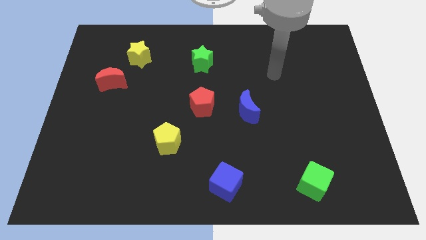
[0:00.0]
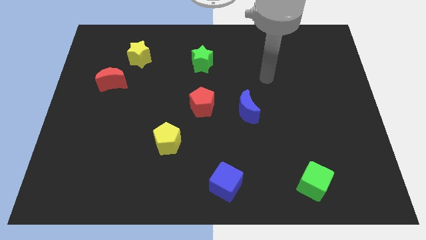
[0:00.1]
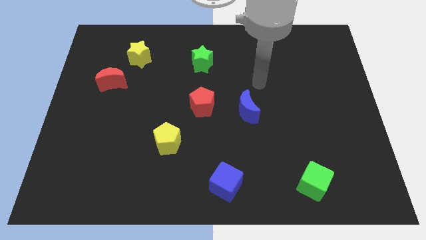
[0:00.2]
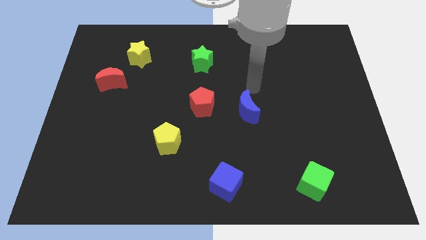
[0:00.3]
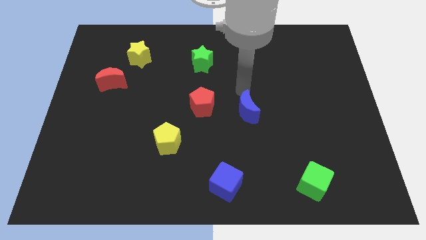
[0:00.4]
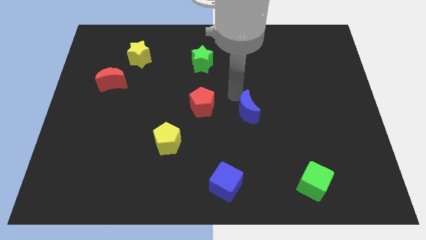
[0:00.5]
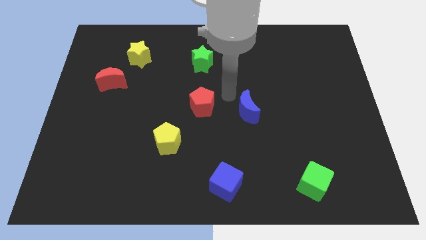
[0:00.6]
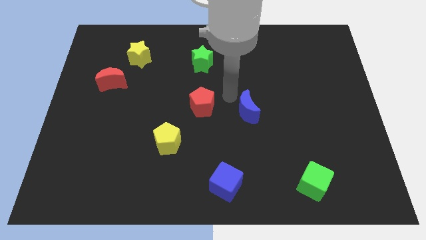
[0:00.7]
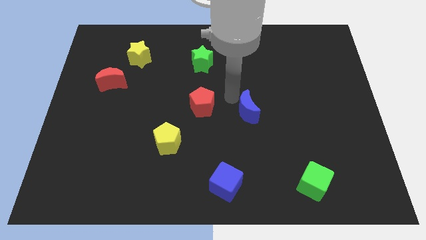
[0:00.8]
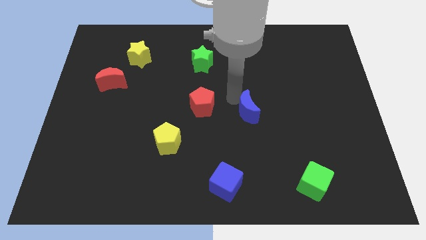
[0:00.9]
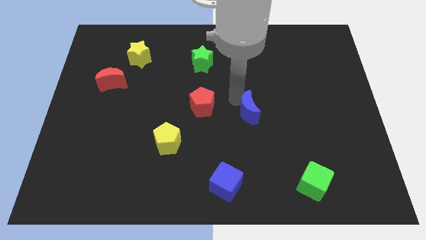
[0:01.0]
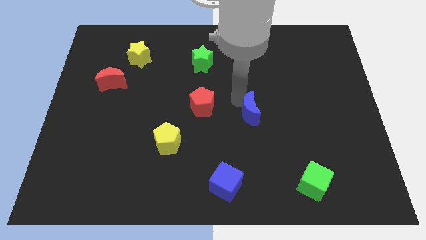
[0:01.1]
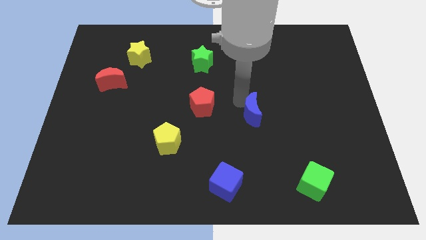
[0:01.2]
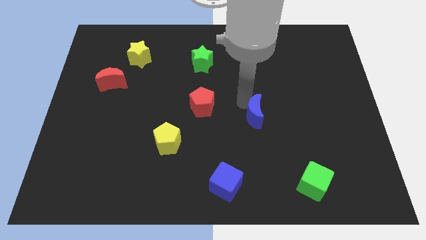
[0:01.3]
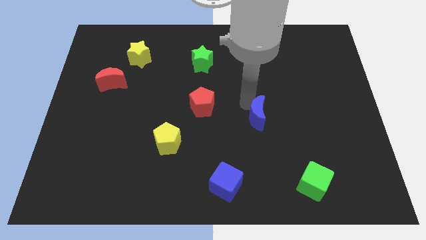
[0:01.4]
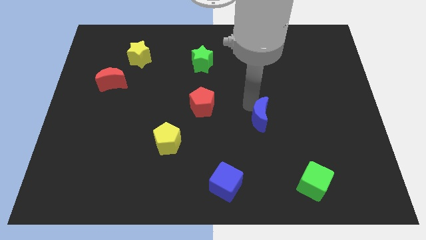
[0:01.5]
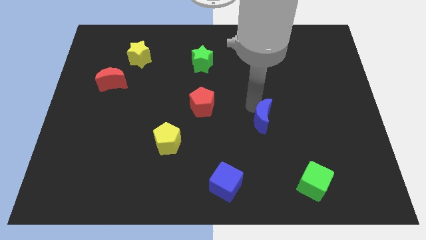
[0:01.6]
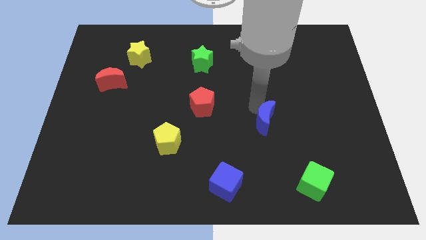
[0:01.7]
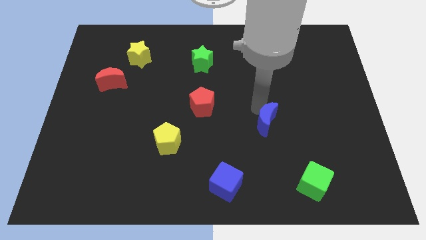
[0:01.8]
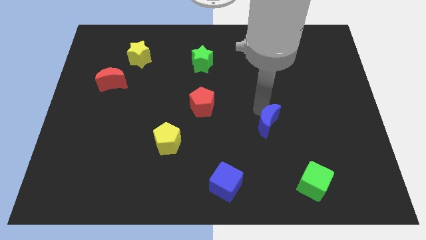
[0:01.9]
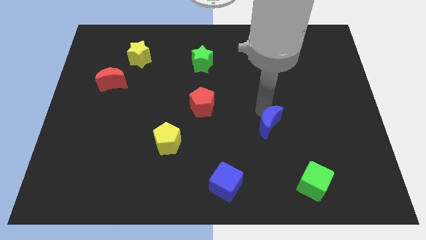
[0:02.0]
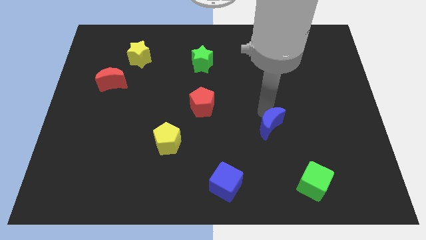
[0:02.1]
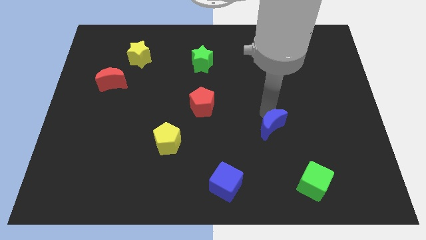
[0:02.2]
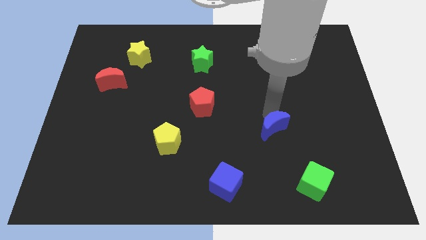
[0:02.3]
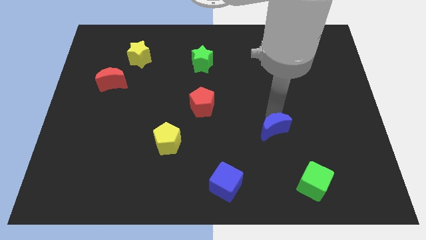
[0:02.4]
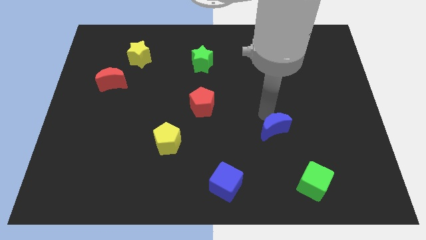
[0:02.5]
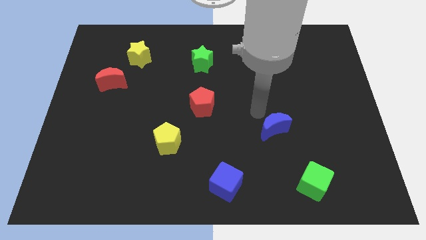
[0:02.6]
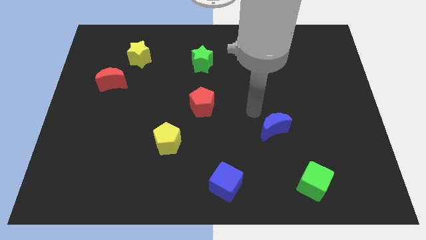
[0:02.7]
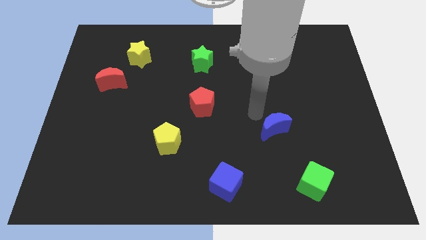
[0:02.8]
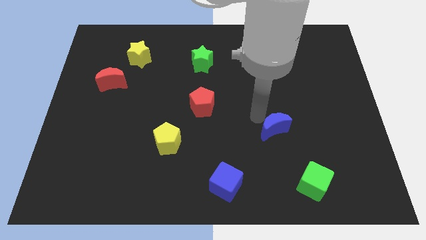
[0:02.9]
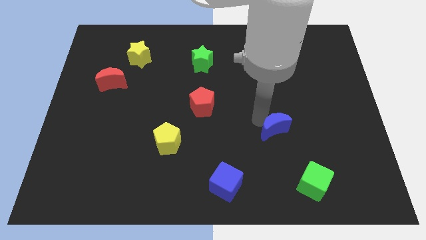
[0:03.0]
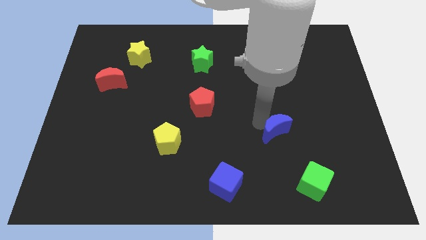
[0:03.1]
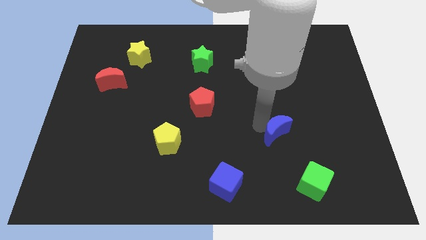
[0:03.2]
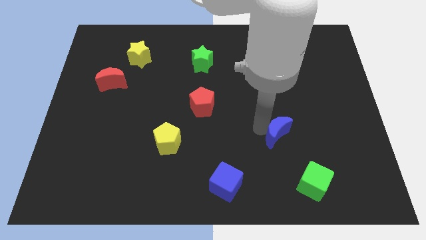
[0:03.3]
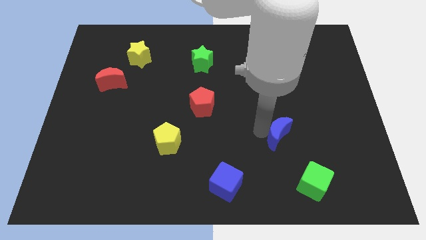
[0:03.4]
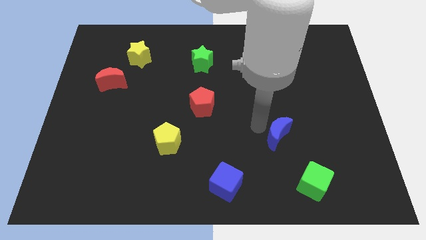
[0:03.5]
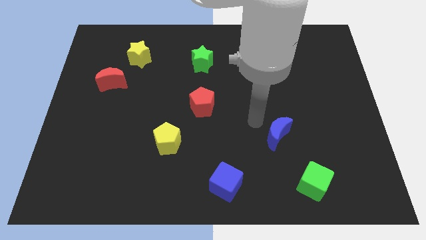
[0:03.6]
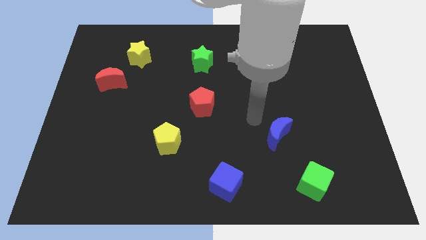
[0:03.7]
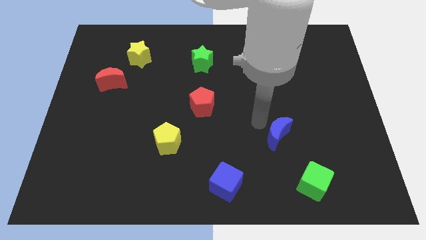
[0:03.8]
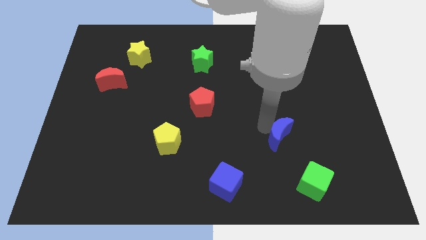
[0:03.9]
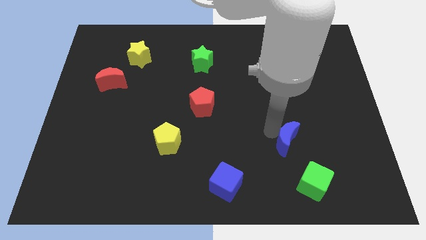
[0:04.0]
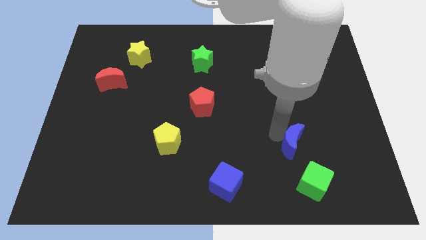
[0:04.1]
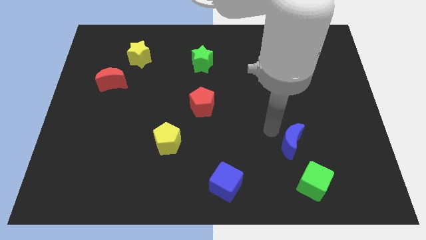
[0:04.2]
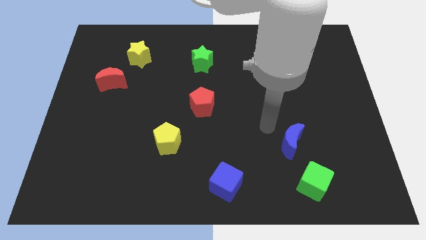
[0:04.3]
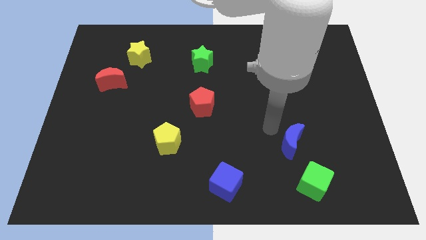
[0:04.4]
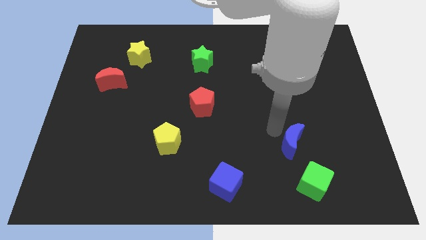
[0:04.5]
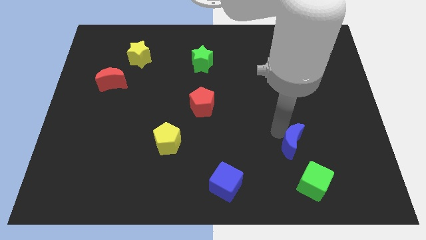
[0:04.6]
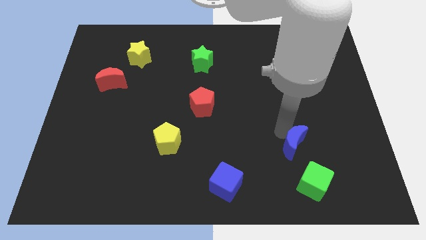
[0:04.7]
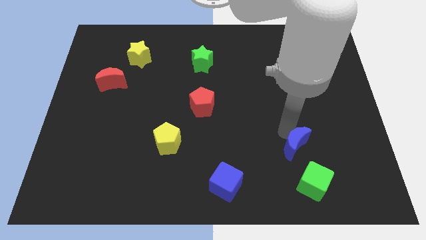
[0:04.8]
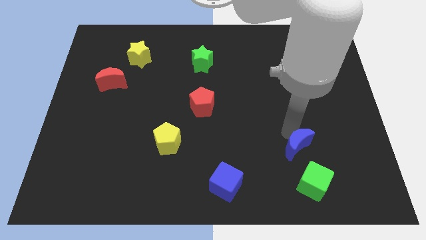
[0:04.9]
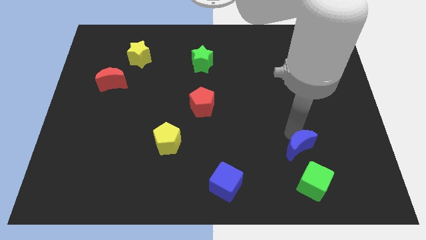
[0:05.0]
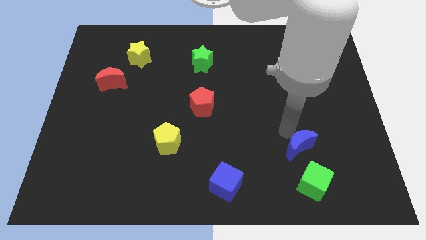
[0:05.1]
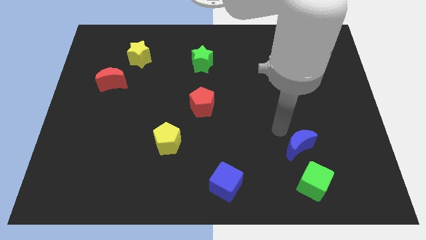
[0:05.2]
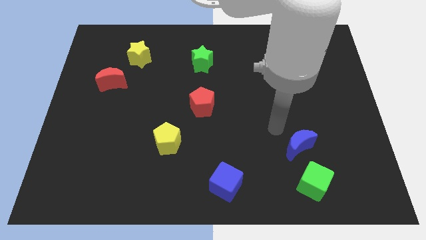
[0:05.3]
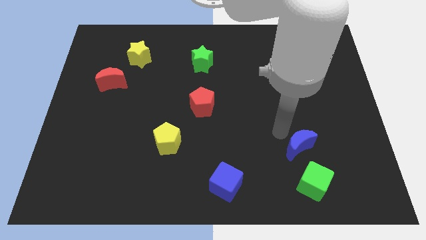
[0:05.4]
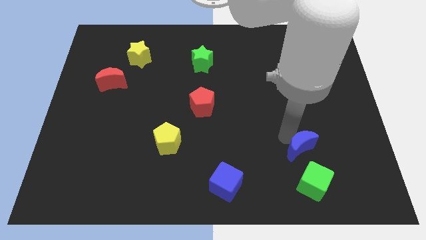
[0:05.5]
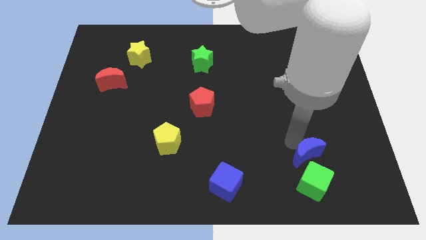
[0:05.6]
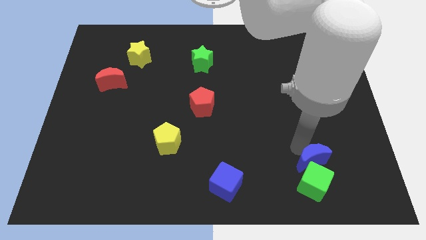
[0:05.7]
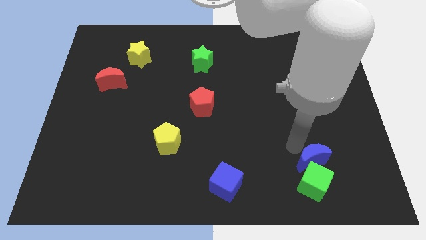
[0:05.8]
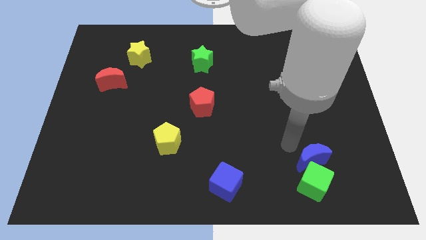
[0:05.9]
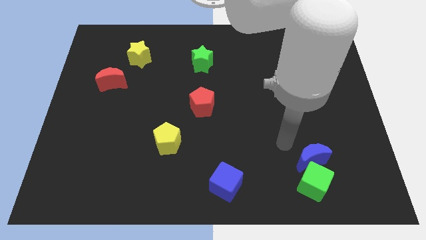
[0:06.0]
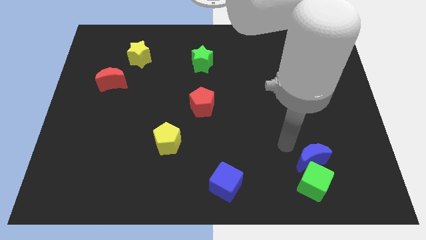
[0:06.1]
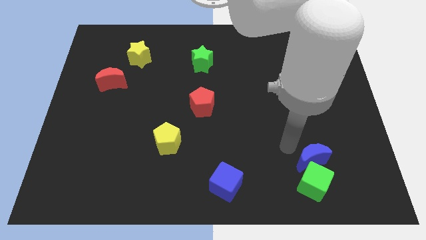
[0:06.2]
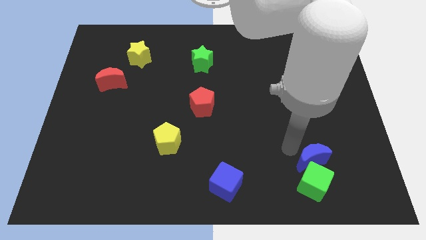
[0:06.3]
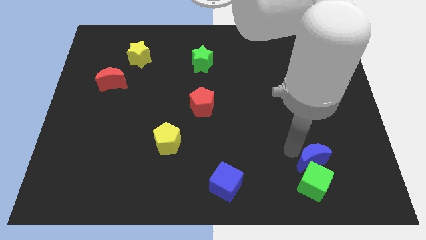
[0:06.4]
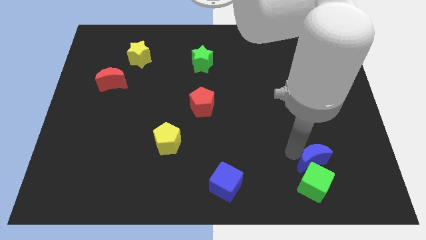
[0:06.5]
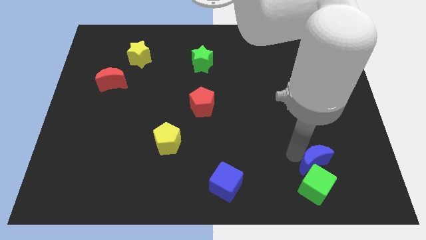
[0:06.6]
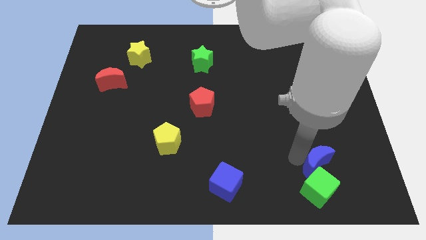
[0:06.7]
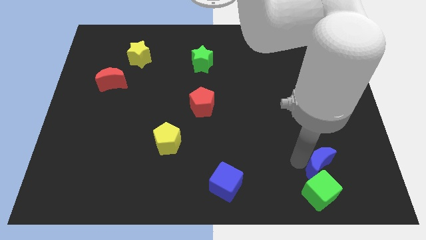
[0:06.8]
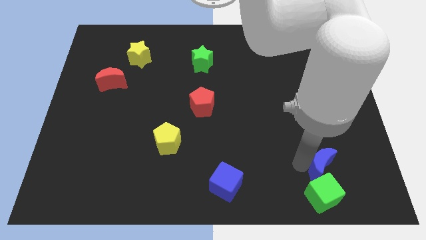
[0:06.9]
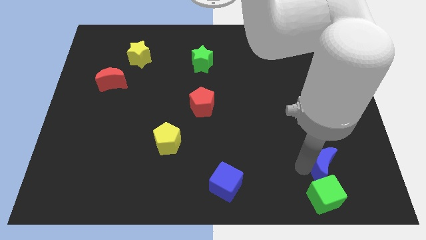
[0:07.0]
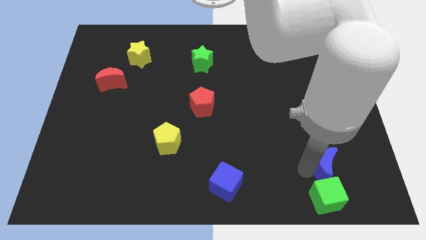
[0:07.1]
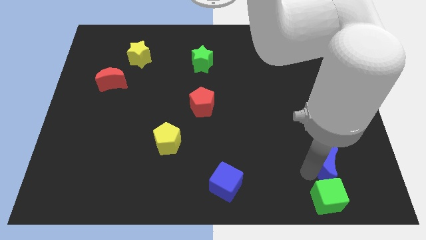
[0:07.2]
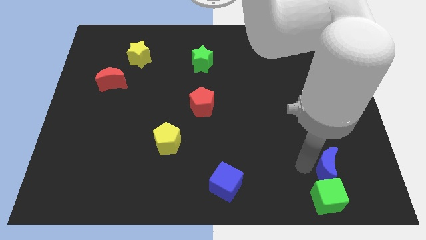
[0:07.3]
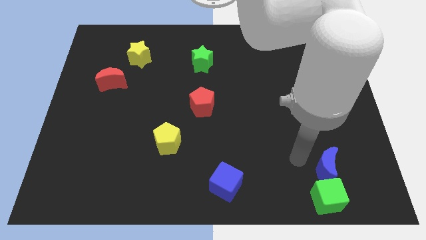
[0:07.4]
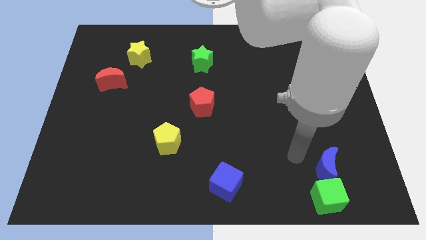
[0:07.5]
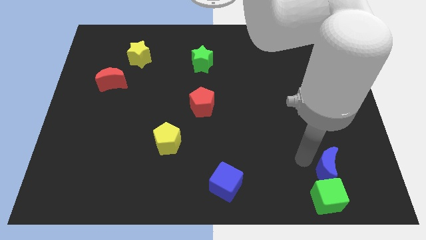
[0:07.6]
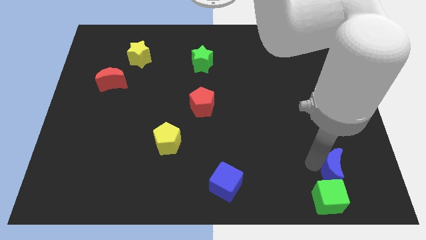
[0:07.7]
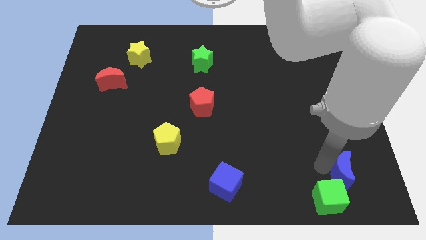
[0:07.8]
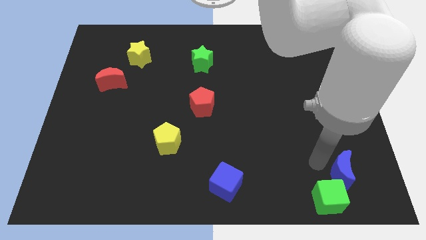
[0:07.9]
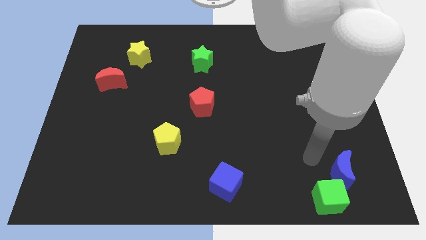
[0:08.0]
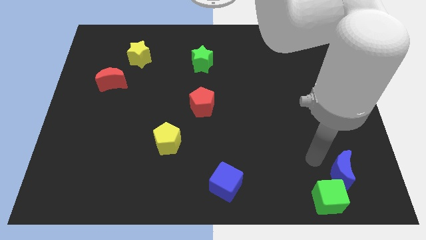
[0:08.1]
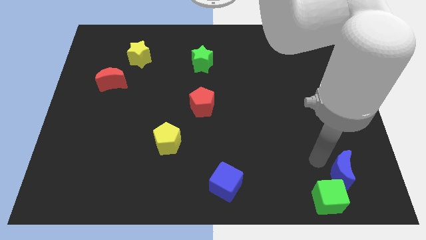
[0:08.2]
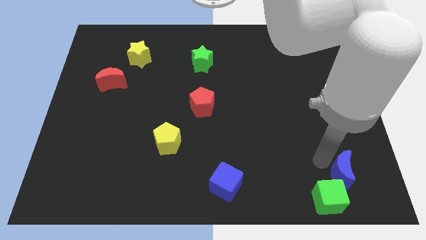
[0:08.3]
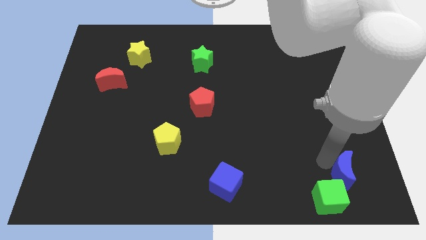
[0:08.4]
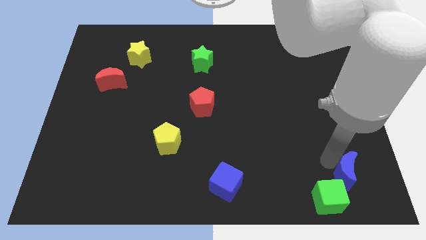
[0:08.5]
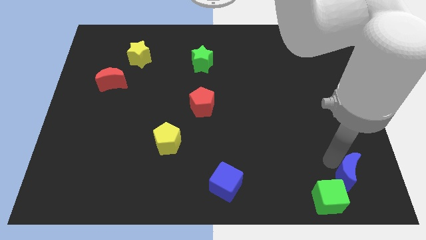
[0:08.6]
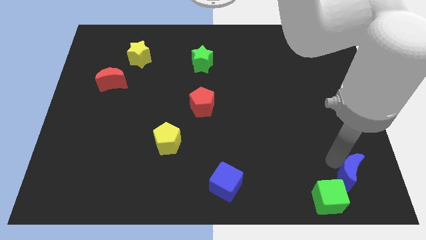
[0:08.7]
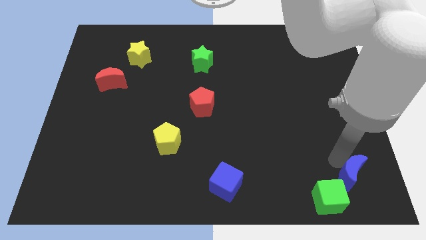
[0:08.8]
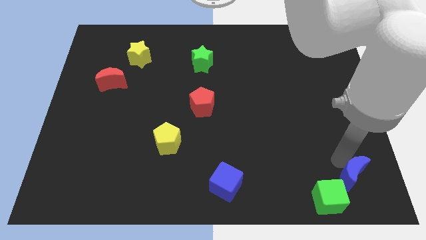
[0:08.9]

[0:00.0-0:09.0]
push the blue moon to the bottom right corner
